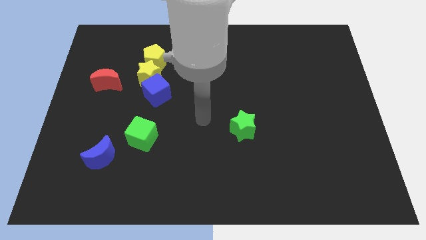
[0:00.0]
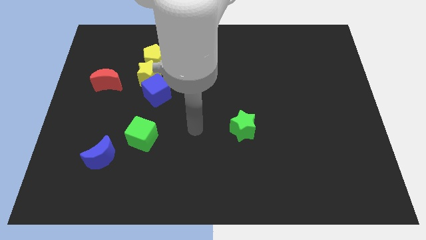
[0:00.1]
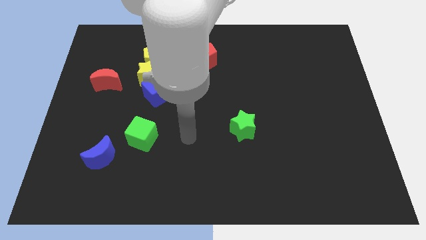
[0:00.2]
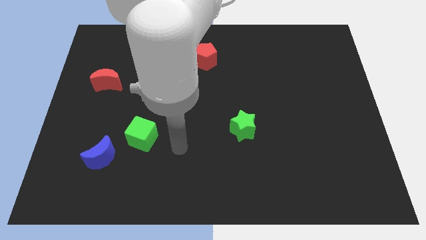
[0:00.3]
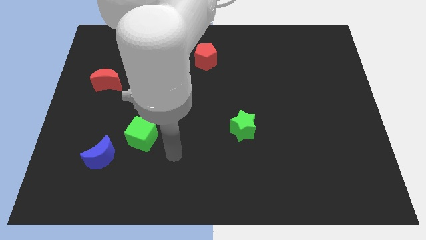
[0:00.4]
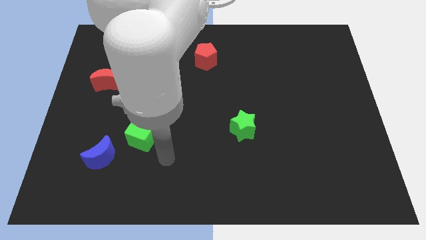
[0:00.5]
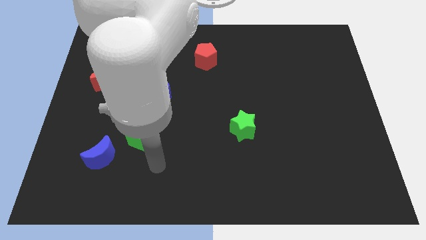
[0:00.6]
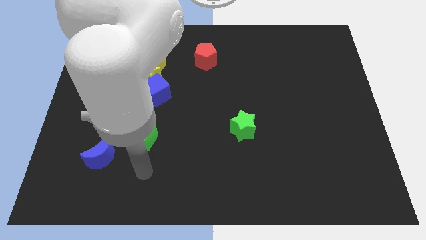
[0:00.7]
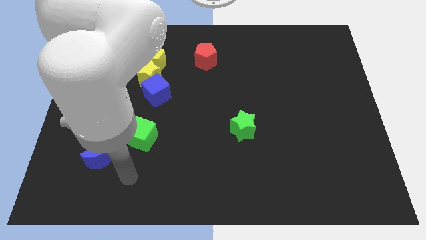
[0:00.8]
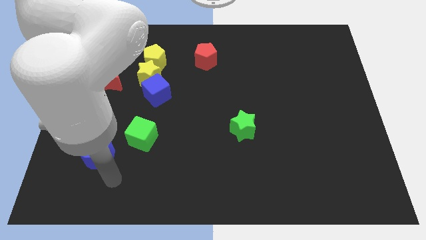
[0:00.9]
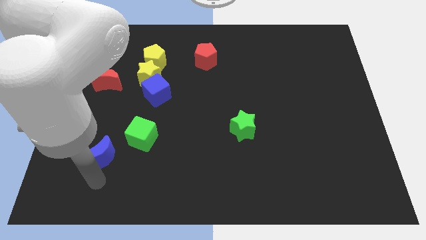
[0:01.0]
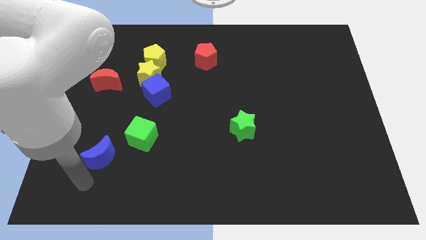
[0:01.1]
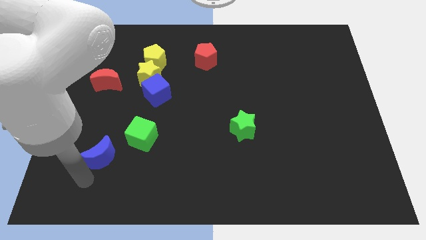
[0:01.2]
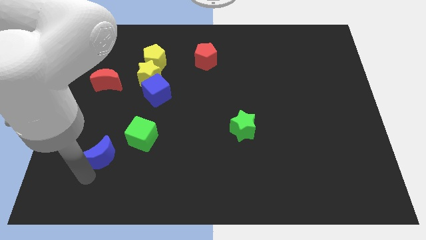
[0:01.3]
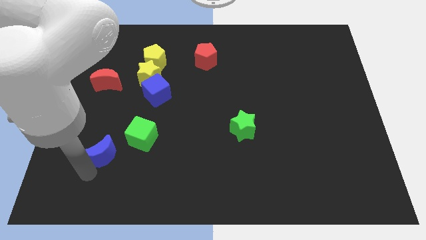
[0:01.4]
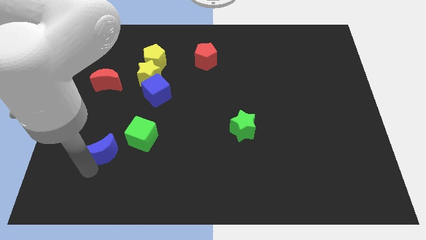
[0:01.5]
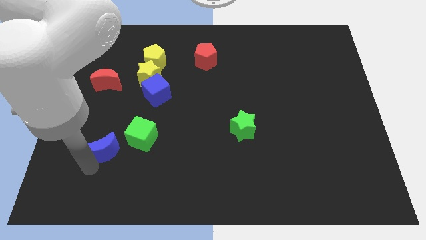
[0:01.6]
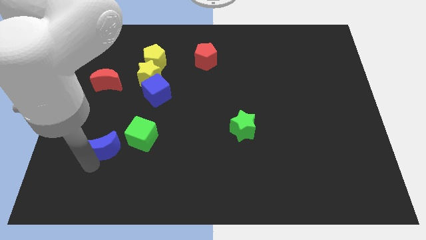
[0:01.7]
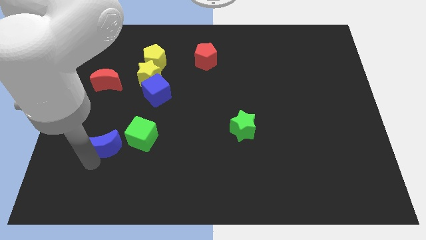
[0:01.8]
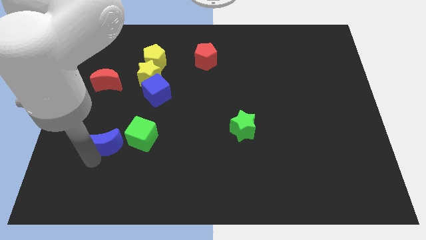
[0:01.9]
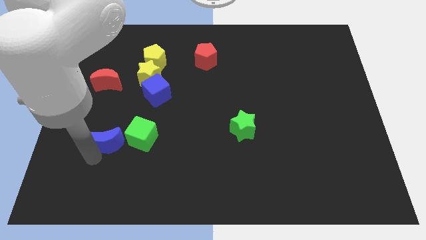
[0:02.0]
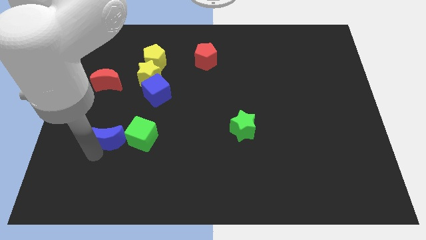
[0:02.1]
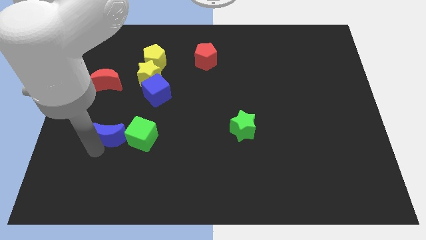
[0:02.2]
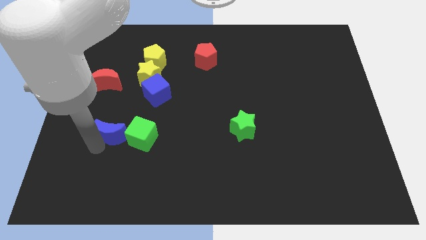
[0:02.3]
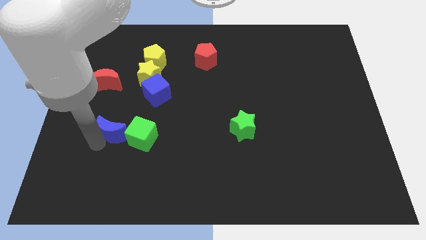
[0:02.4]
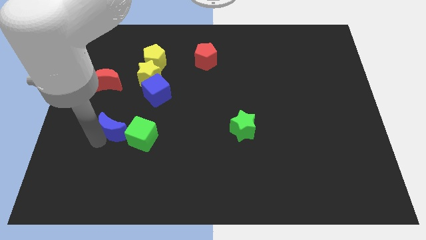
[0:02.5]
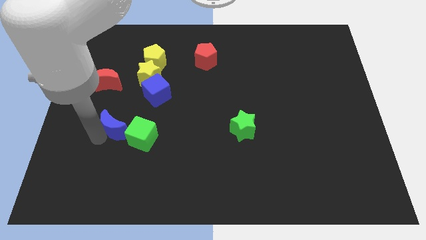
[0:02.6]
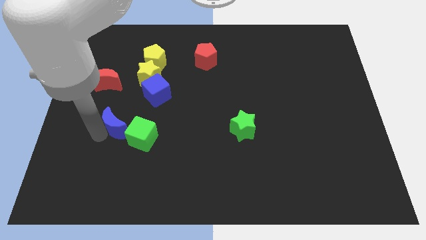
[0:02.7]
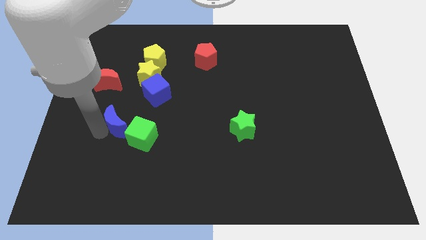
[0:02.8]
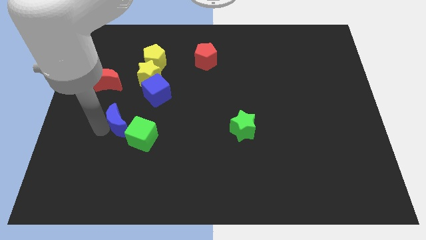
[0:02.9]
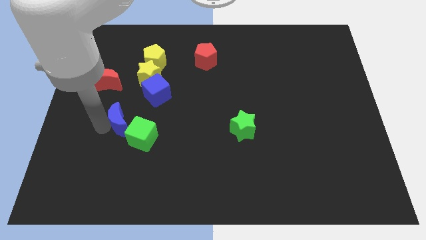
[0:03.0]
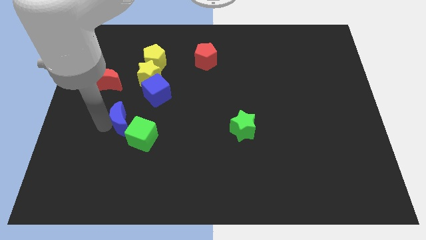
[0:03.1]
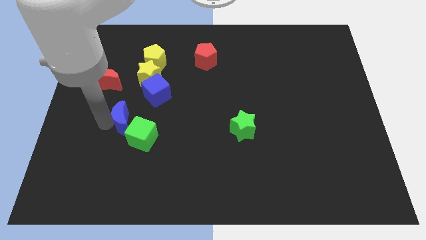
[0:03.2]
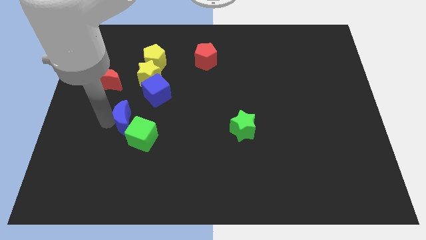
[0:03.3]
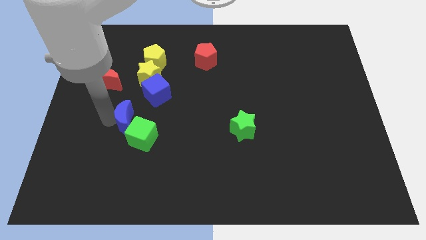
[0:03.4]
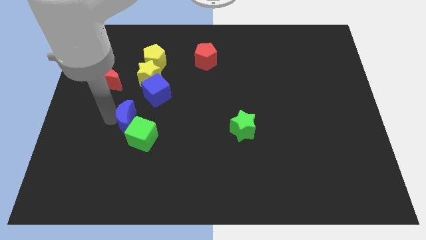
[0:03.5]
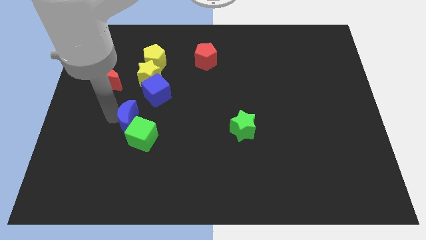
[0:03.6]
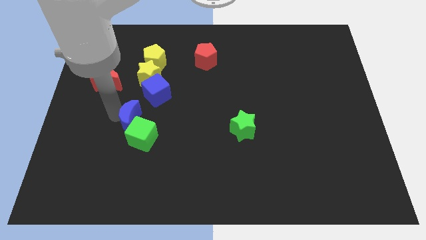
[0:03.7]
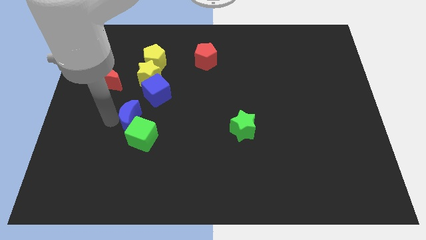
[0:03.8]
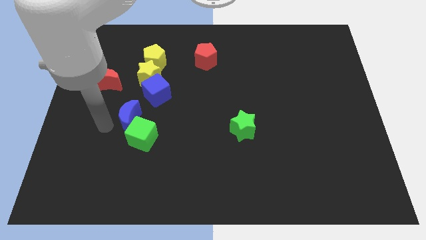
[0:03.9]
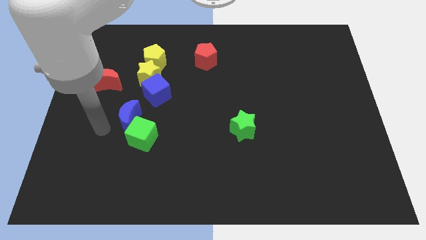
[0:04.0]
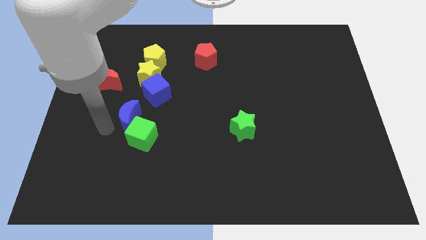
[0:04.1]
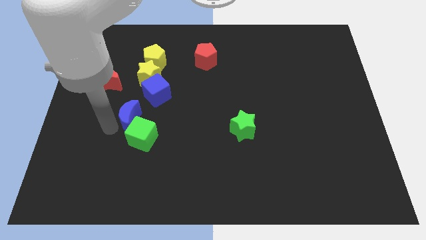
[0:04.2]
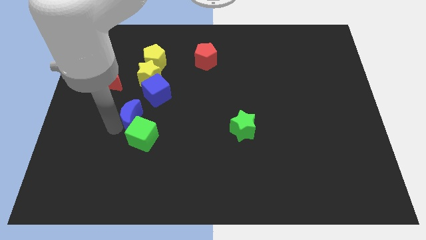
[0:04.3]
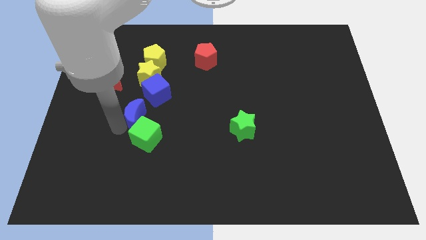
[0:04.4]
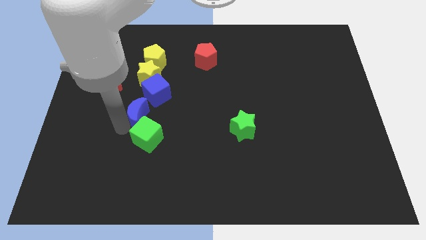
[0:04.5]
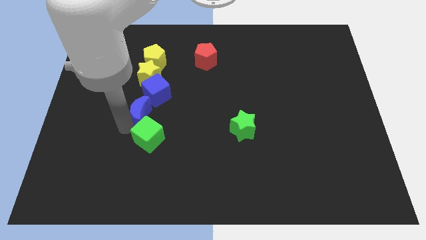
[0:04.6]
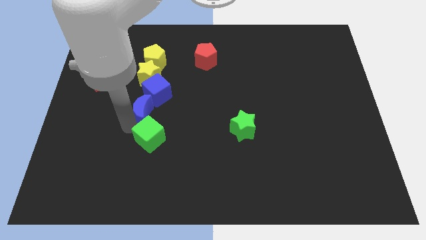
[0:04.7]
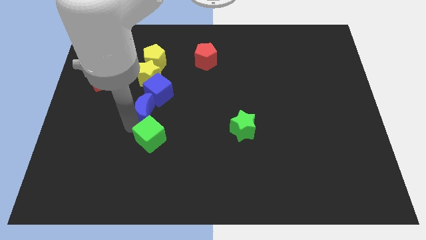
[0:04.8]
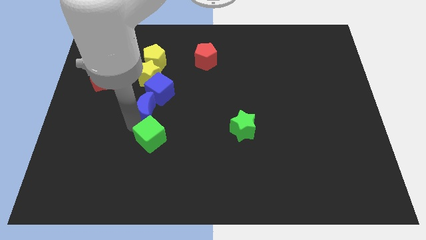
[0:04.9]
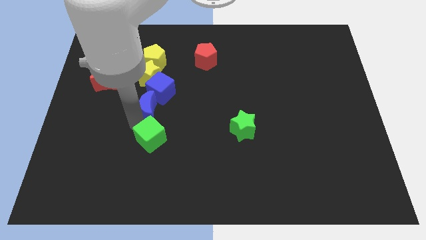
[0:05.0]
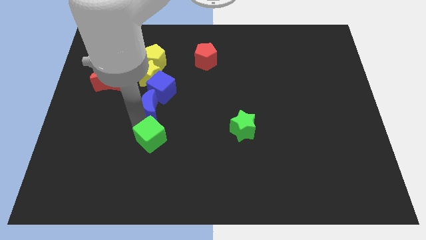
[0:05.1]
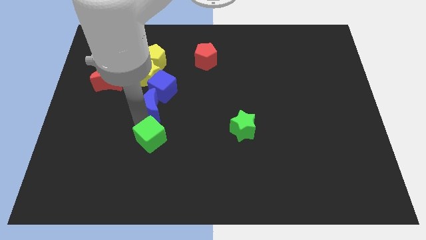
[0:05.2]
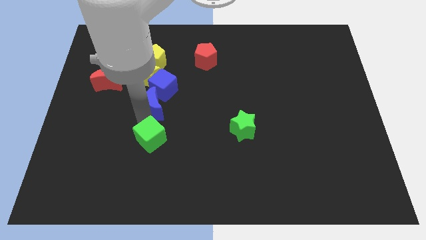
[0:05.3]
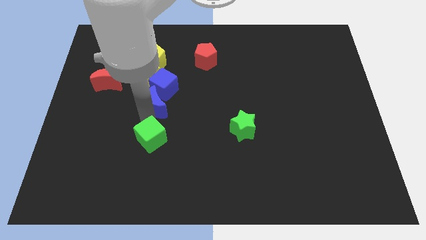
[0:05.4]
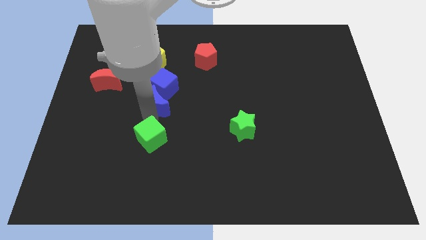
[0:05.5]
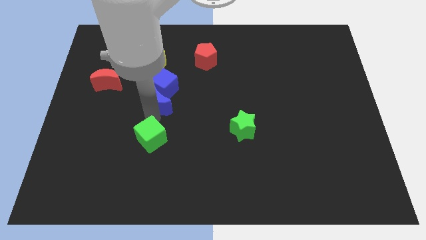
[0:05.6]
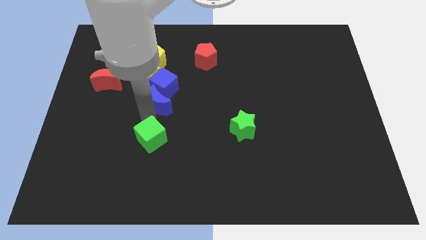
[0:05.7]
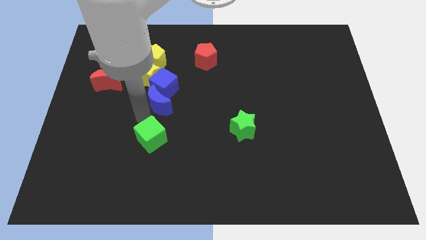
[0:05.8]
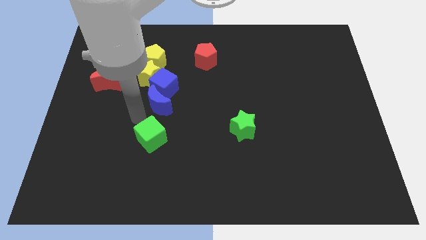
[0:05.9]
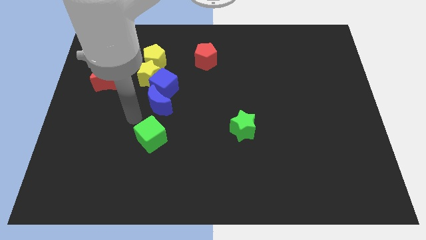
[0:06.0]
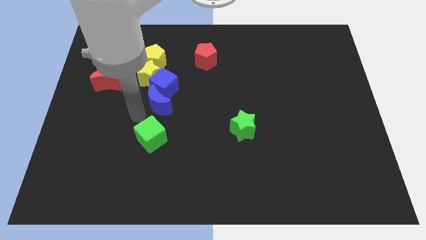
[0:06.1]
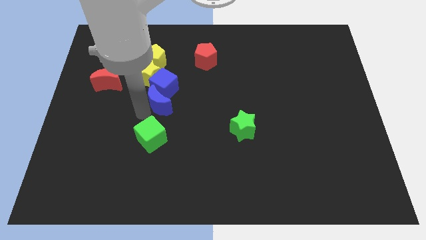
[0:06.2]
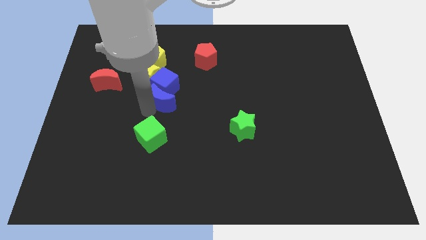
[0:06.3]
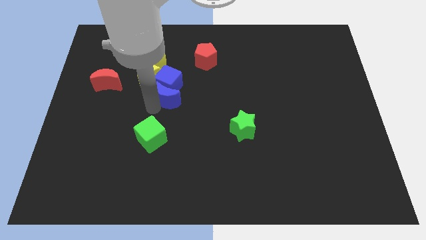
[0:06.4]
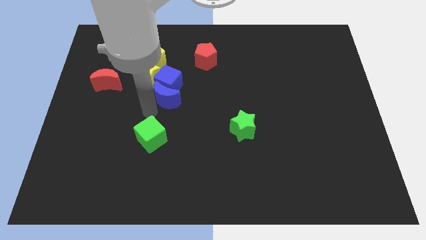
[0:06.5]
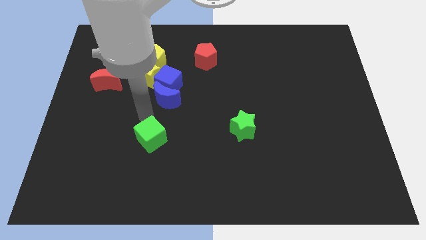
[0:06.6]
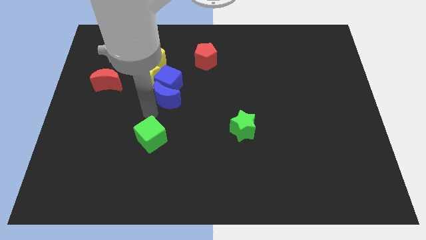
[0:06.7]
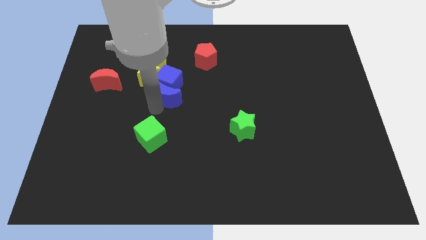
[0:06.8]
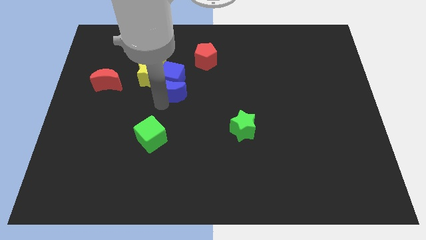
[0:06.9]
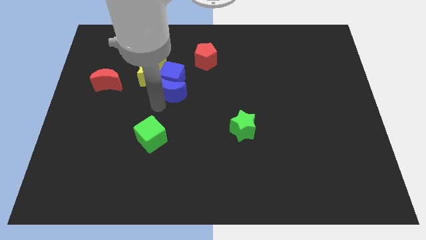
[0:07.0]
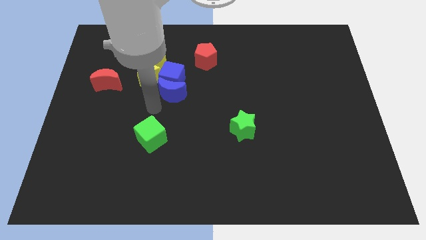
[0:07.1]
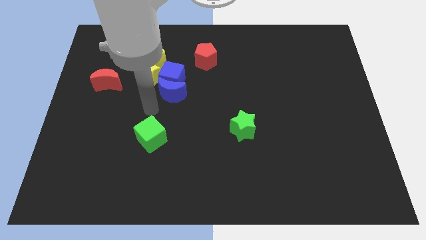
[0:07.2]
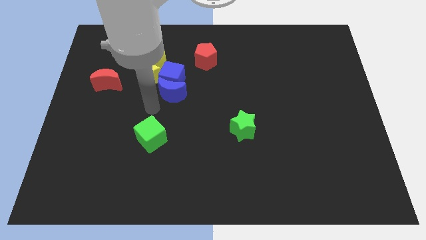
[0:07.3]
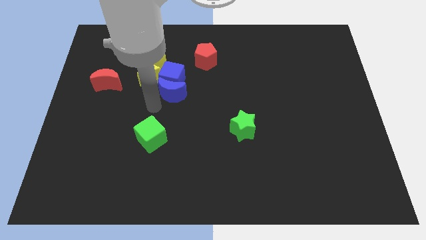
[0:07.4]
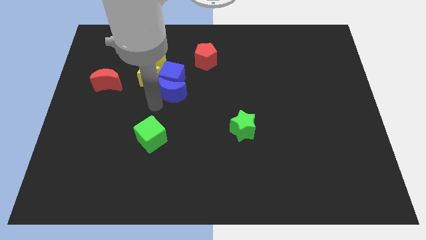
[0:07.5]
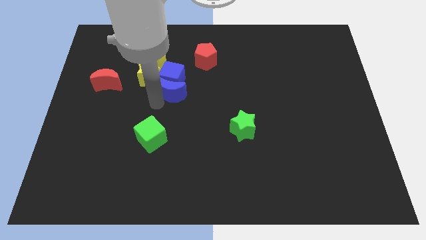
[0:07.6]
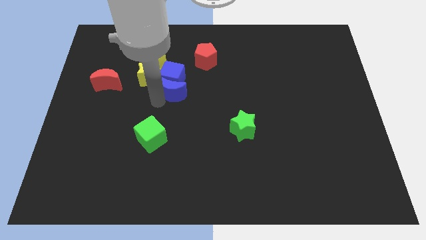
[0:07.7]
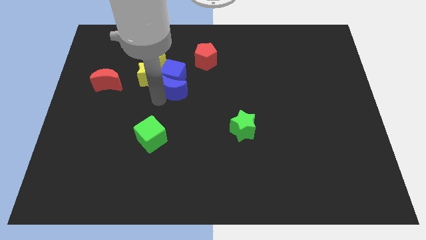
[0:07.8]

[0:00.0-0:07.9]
slide the blue moon to the bottom right side of the yellow pentagon
